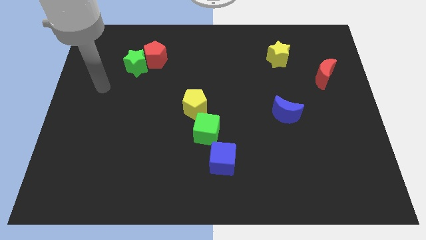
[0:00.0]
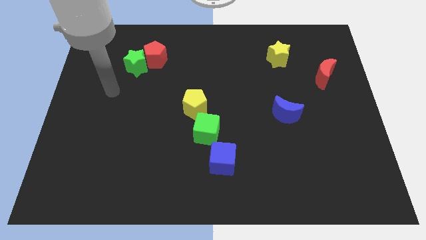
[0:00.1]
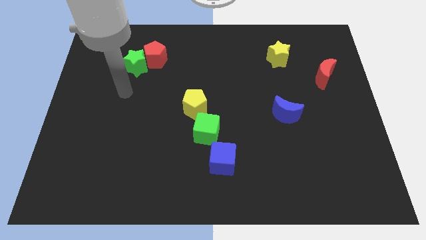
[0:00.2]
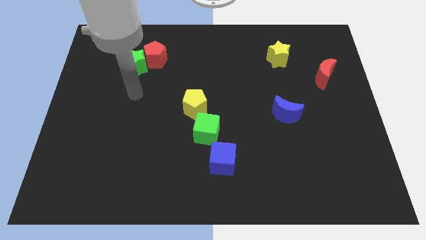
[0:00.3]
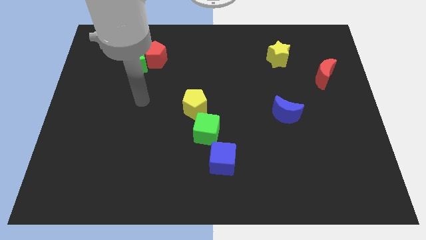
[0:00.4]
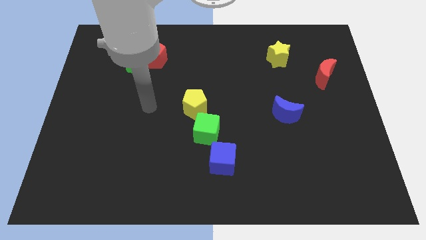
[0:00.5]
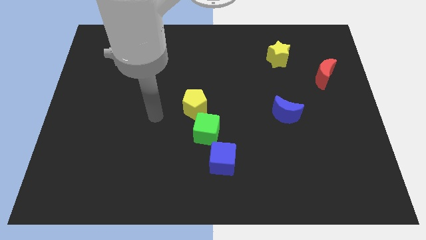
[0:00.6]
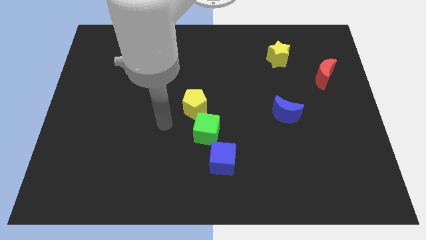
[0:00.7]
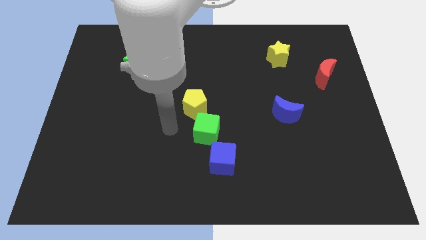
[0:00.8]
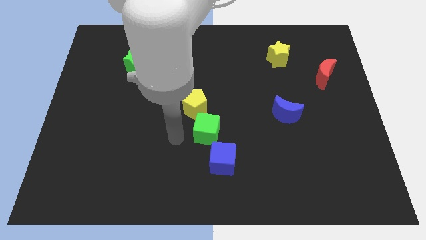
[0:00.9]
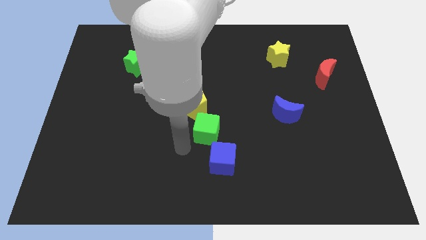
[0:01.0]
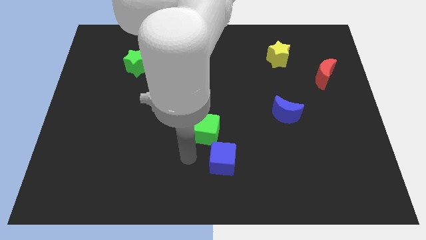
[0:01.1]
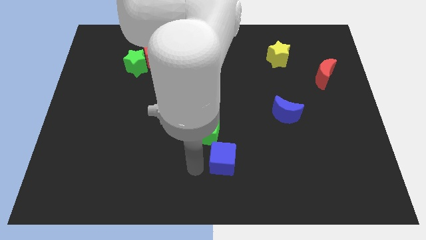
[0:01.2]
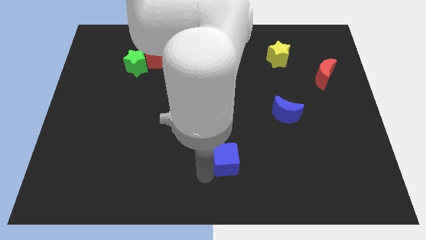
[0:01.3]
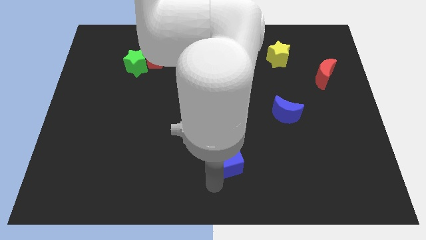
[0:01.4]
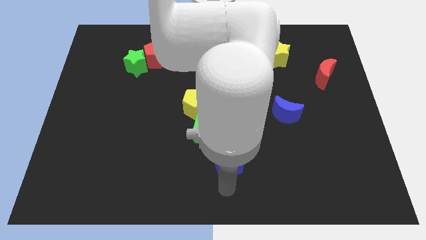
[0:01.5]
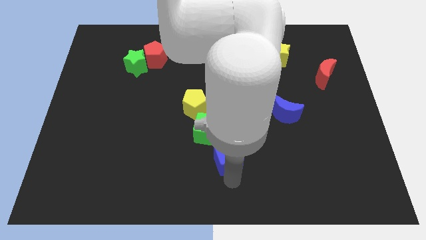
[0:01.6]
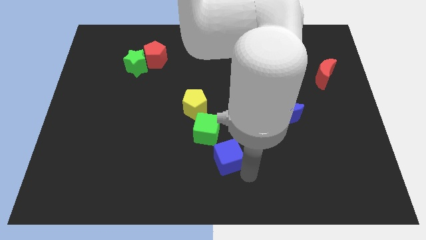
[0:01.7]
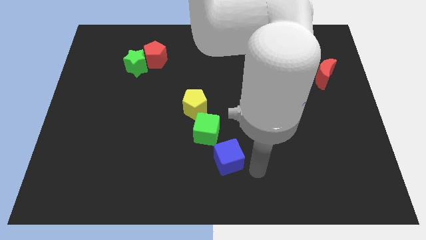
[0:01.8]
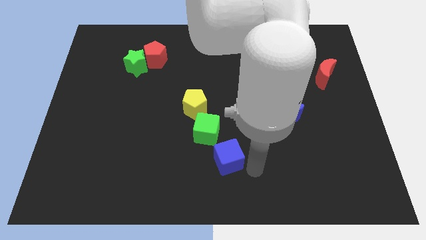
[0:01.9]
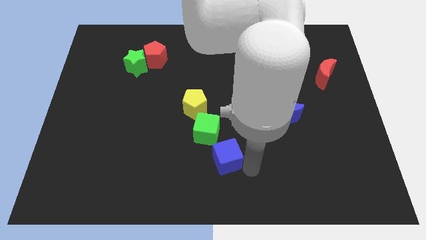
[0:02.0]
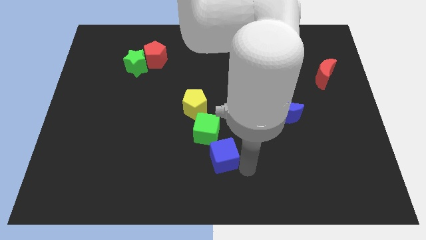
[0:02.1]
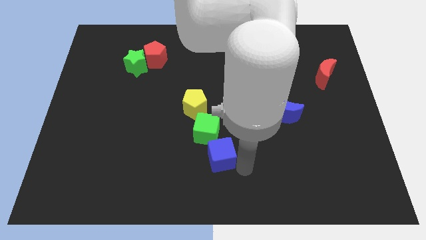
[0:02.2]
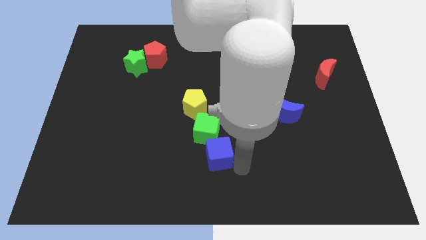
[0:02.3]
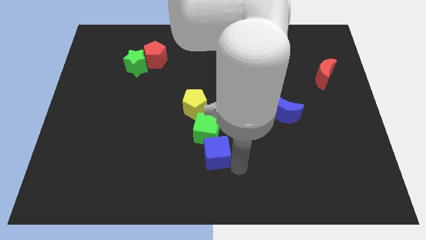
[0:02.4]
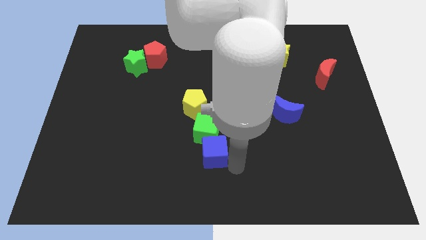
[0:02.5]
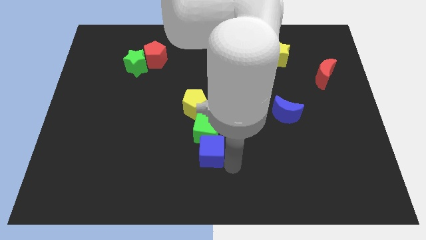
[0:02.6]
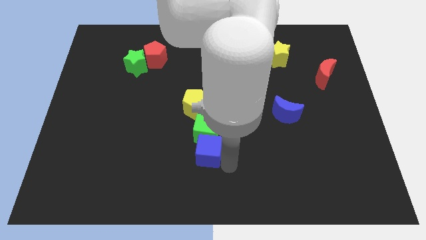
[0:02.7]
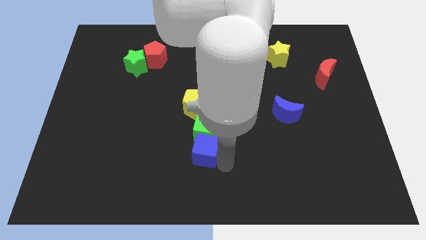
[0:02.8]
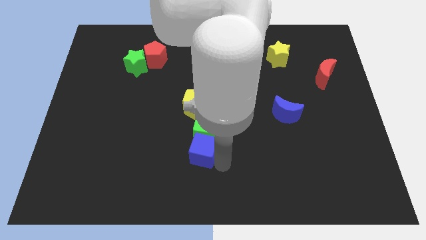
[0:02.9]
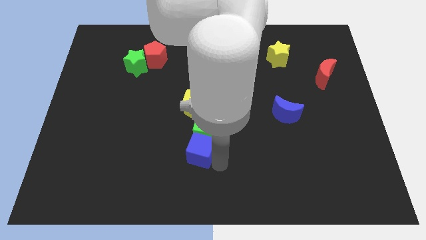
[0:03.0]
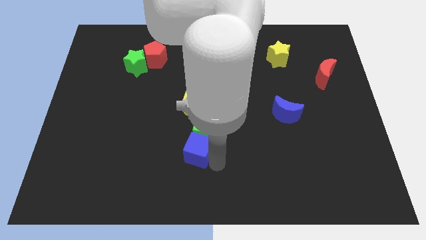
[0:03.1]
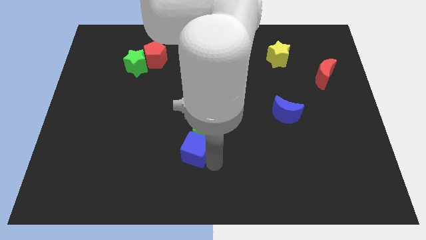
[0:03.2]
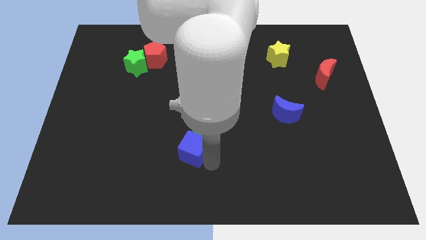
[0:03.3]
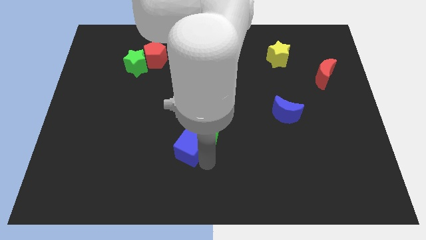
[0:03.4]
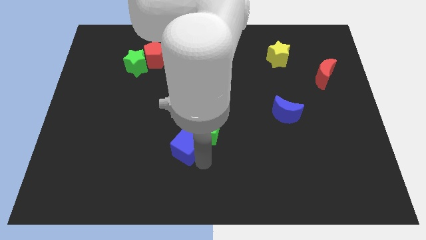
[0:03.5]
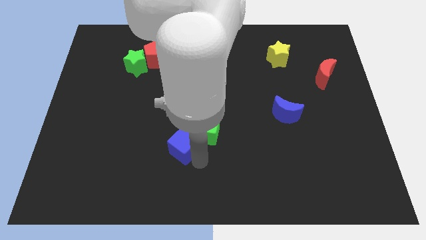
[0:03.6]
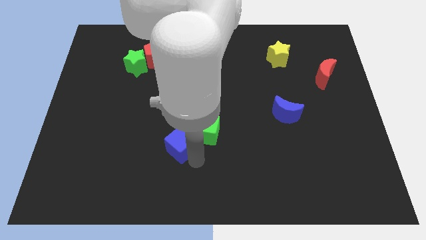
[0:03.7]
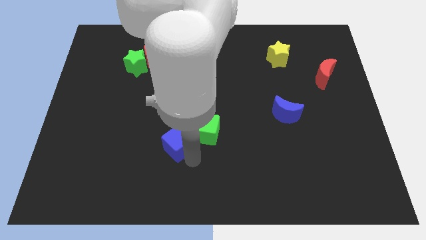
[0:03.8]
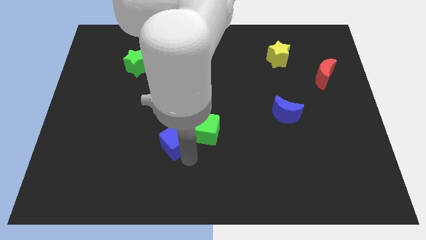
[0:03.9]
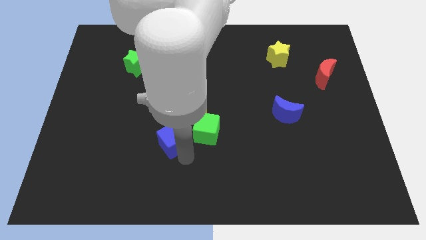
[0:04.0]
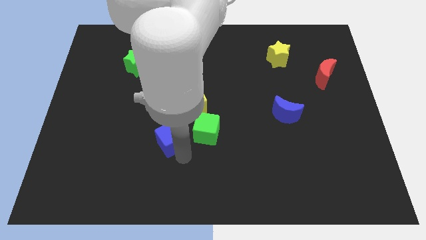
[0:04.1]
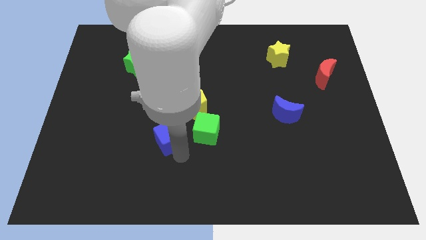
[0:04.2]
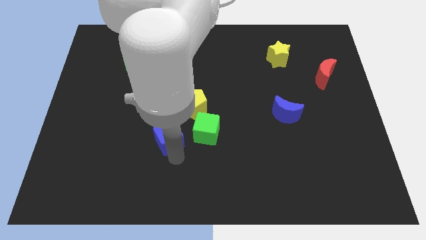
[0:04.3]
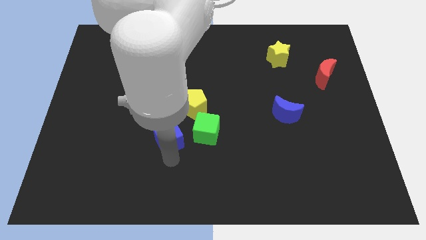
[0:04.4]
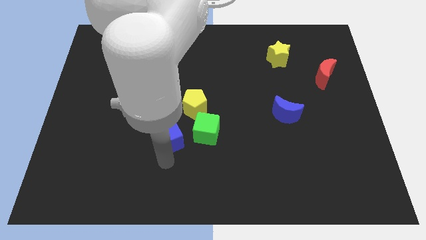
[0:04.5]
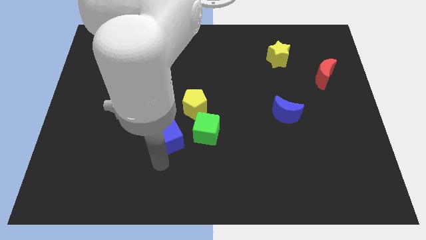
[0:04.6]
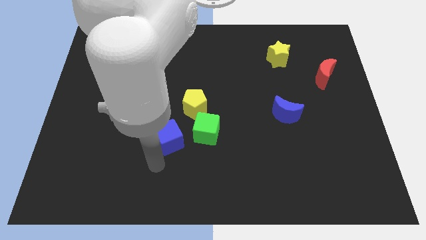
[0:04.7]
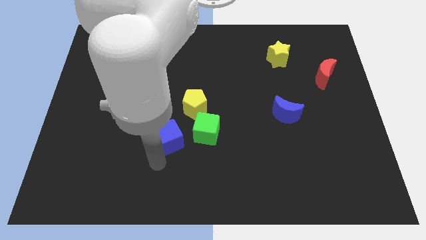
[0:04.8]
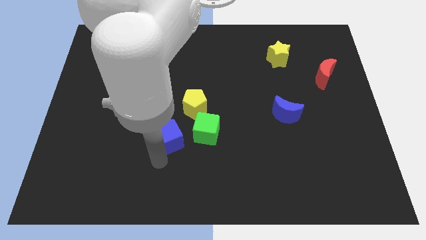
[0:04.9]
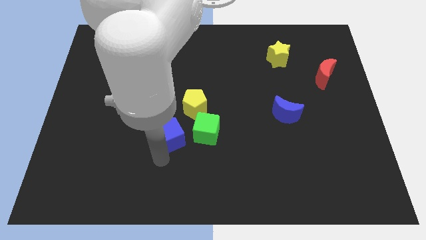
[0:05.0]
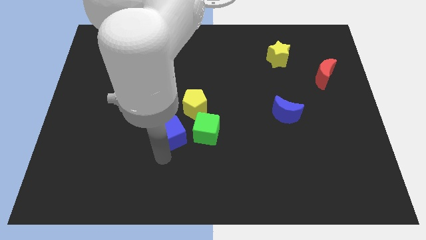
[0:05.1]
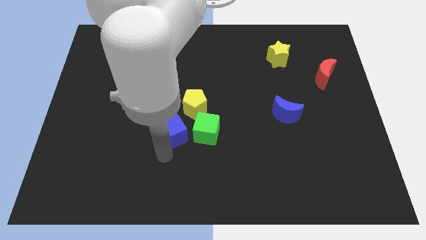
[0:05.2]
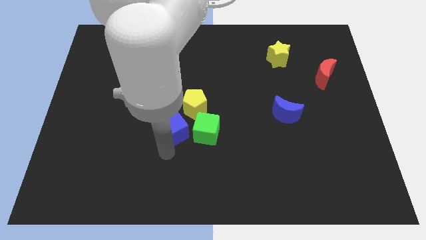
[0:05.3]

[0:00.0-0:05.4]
put the blue cube to the top left side of the green cube

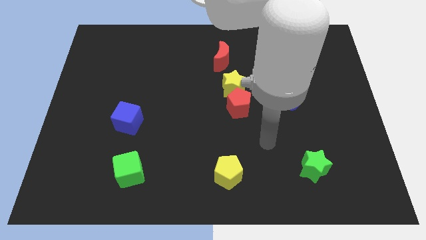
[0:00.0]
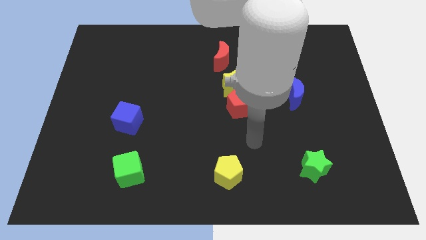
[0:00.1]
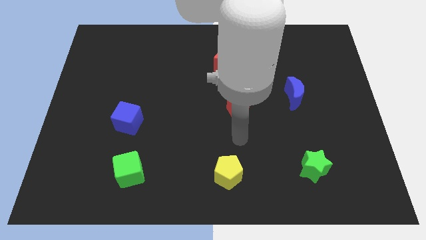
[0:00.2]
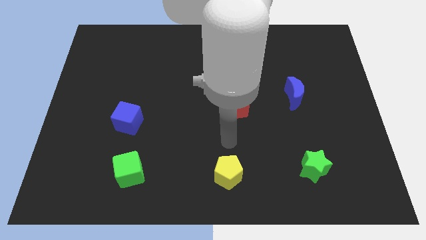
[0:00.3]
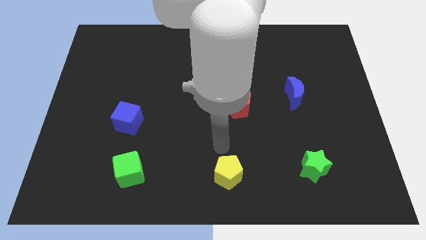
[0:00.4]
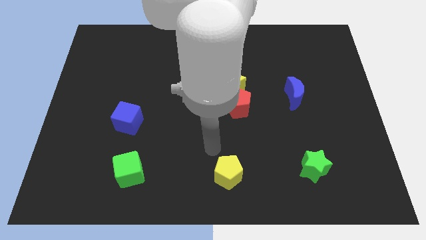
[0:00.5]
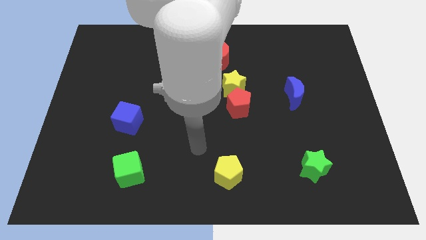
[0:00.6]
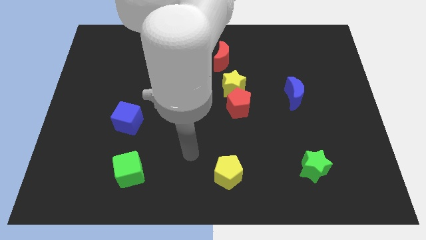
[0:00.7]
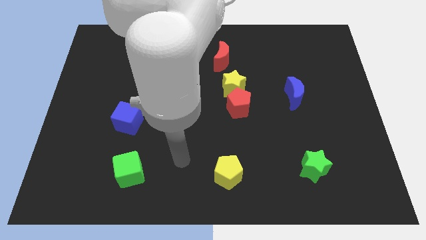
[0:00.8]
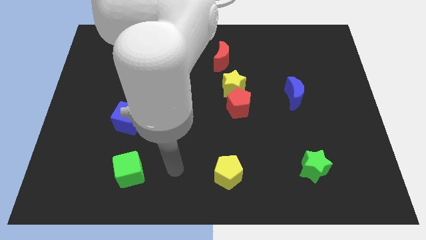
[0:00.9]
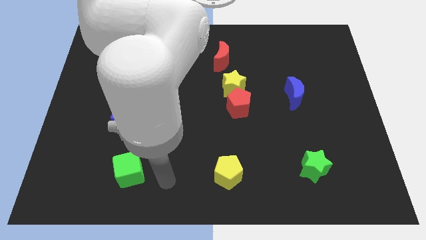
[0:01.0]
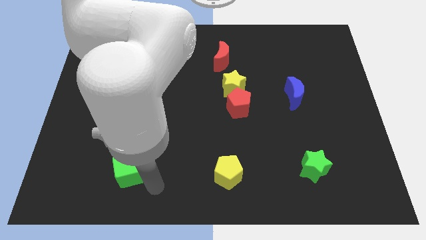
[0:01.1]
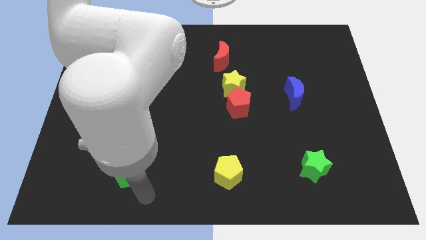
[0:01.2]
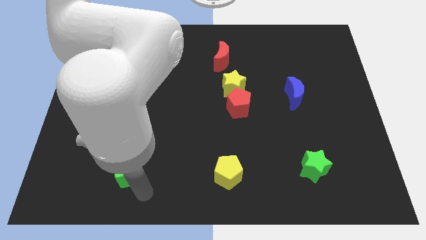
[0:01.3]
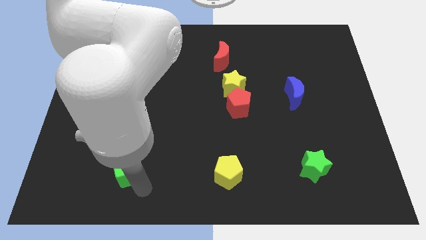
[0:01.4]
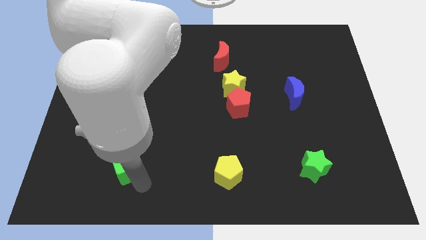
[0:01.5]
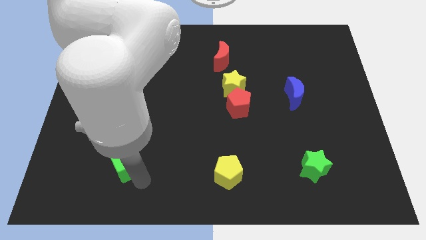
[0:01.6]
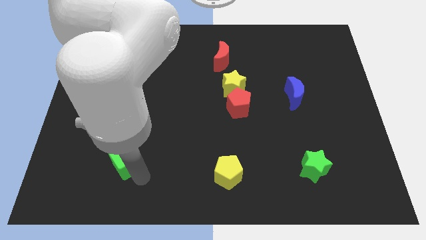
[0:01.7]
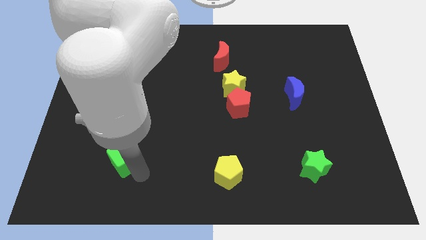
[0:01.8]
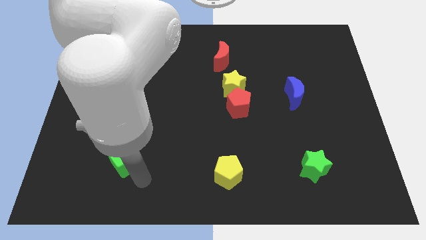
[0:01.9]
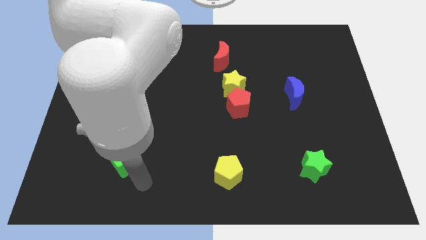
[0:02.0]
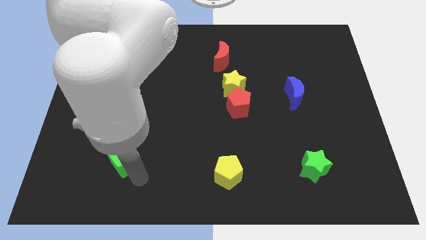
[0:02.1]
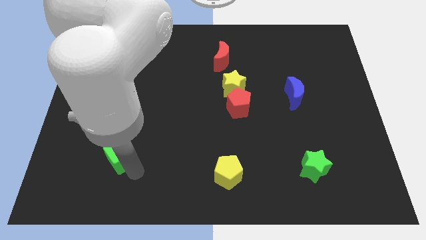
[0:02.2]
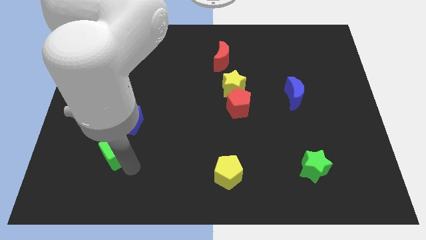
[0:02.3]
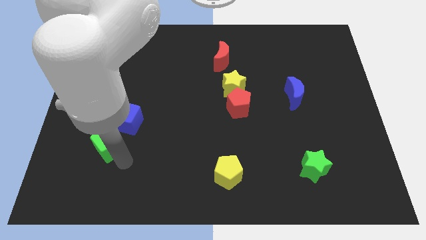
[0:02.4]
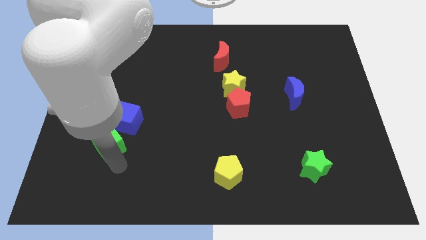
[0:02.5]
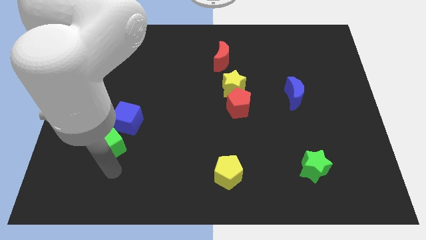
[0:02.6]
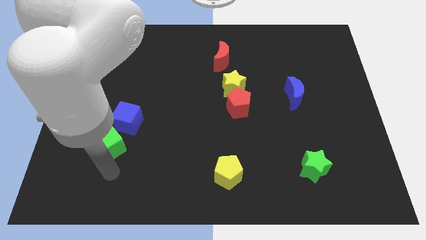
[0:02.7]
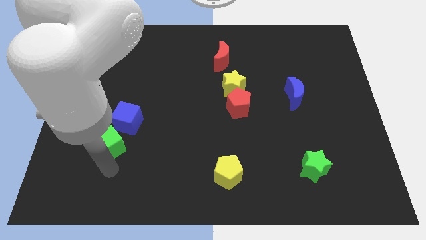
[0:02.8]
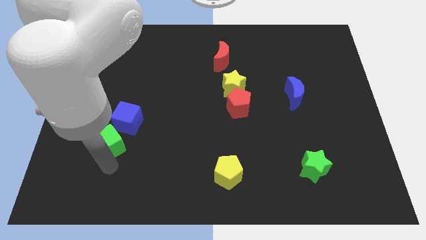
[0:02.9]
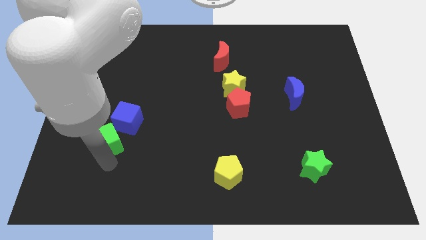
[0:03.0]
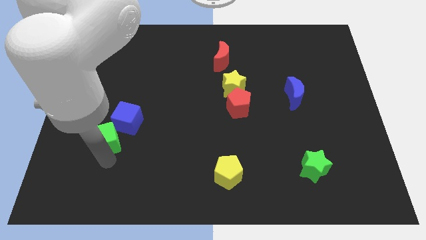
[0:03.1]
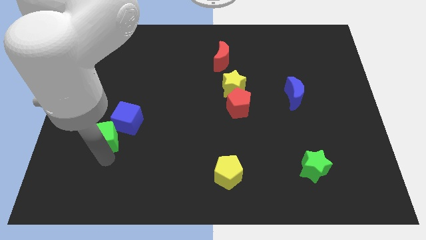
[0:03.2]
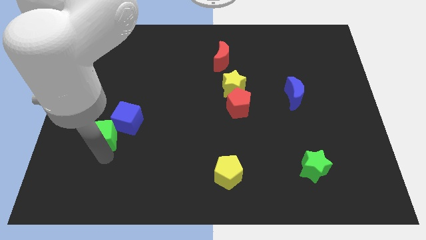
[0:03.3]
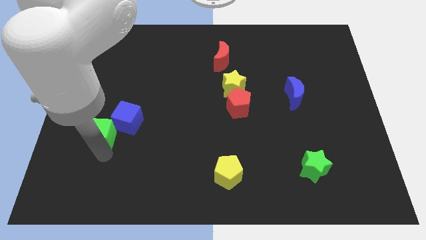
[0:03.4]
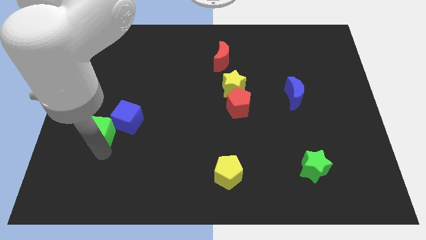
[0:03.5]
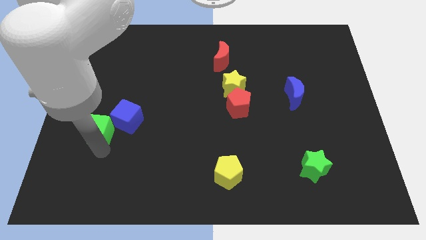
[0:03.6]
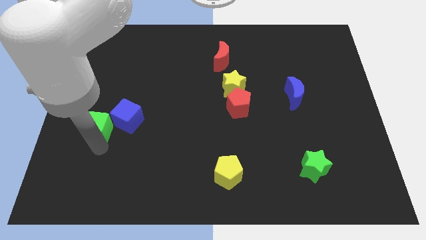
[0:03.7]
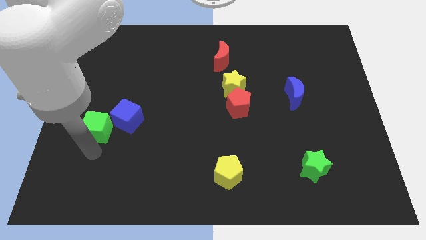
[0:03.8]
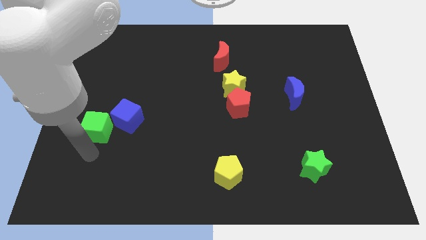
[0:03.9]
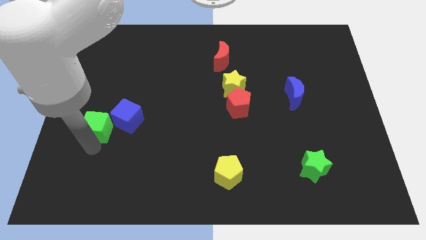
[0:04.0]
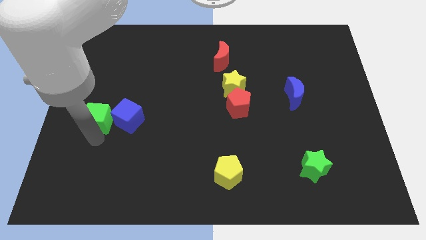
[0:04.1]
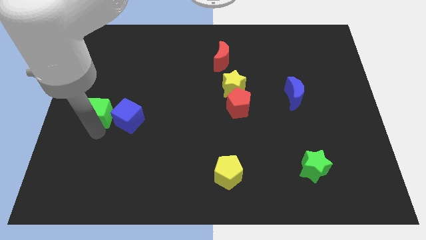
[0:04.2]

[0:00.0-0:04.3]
slide the green cube diagonally up and to the left of the blue cube
